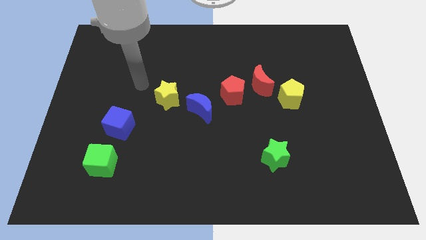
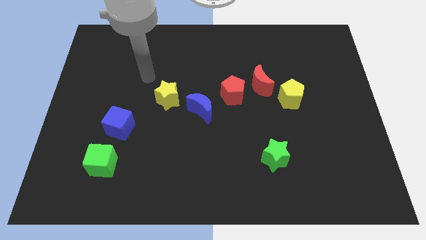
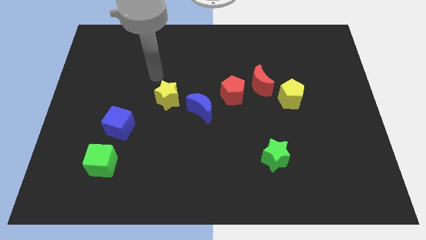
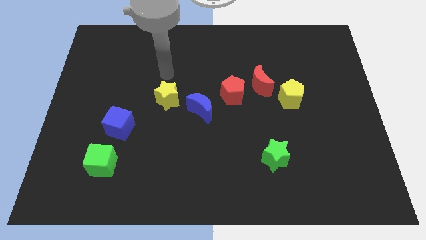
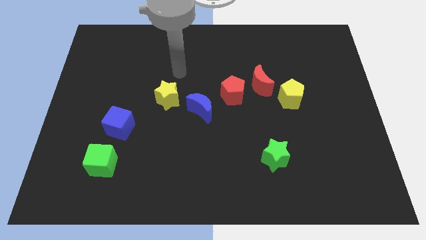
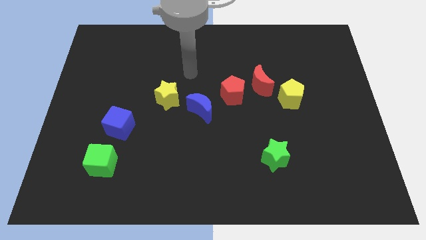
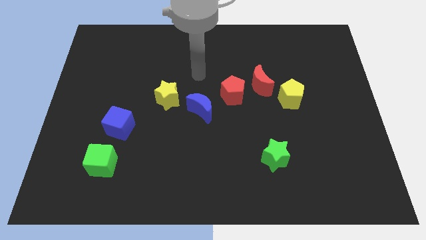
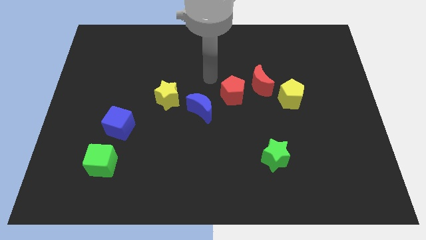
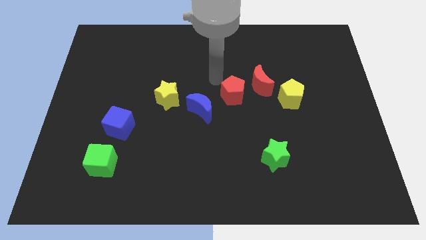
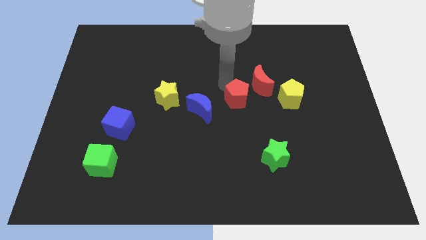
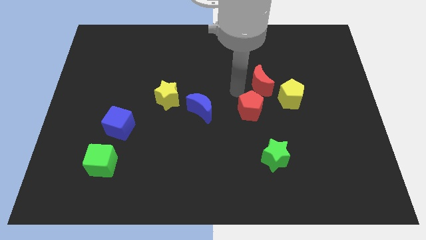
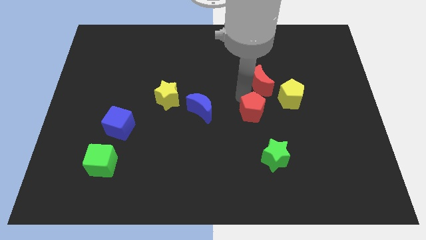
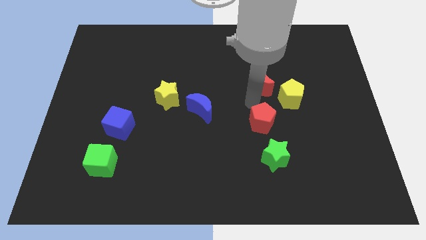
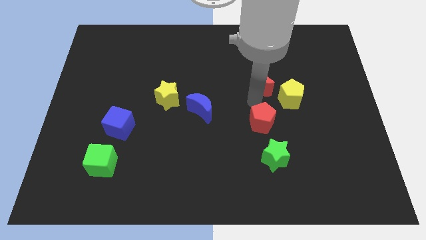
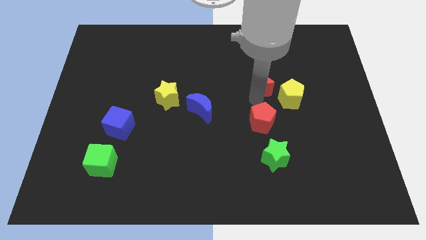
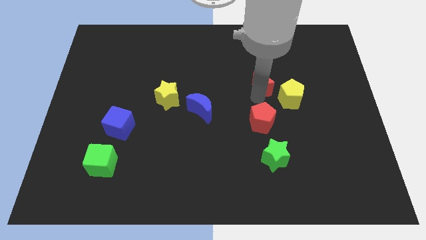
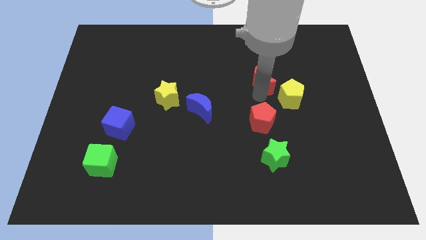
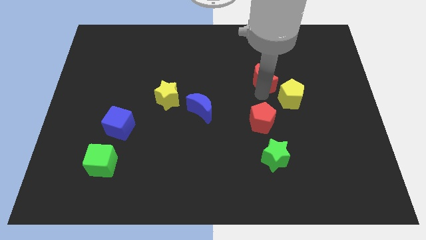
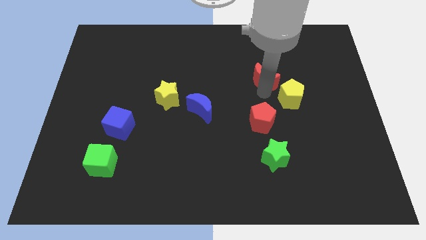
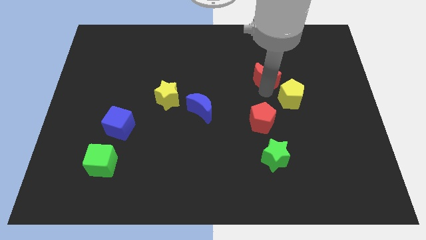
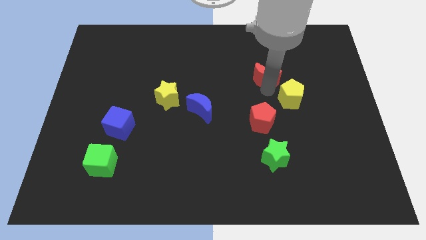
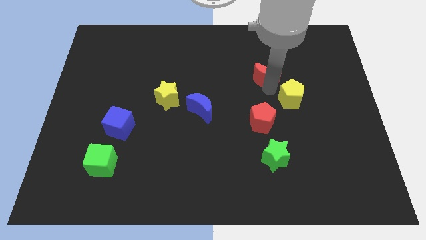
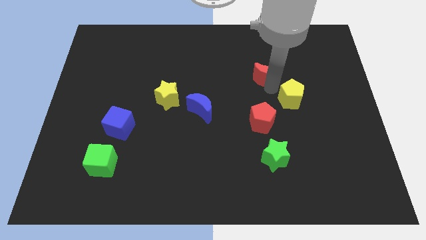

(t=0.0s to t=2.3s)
pull the red moon apart from the red pentagon and yellow pentagon

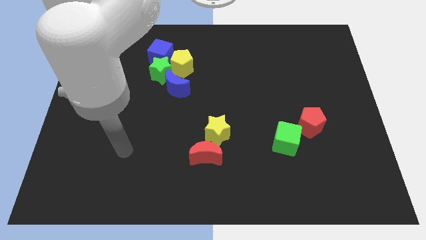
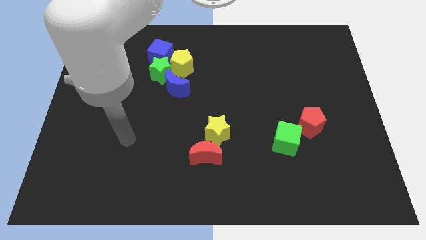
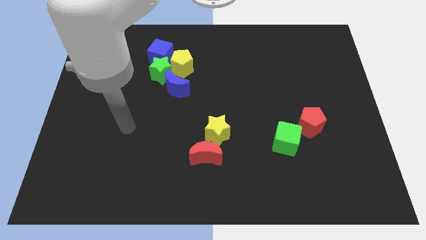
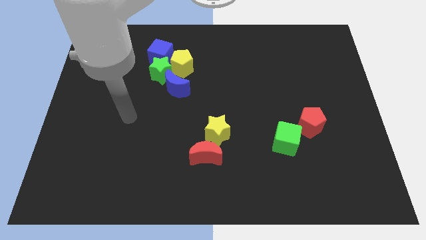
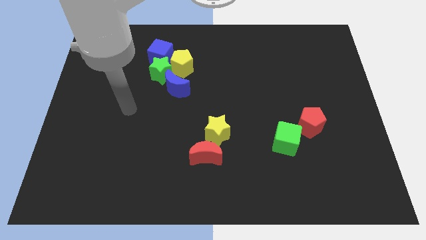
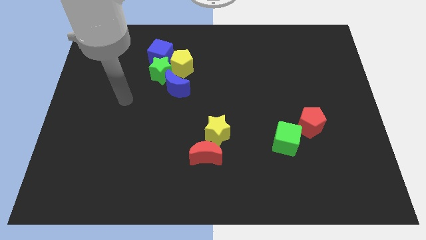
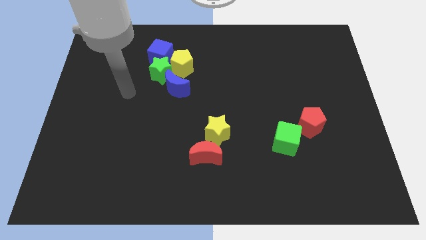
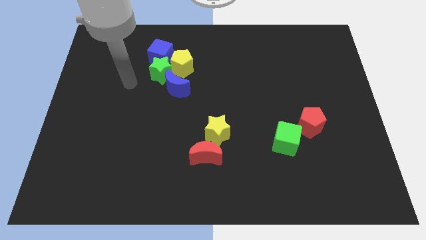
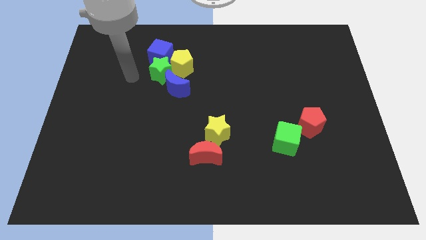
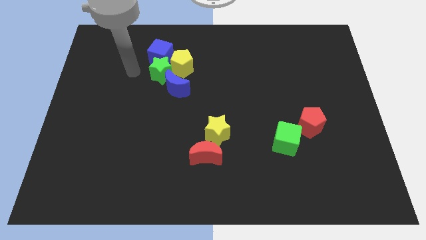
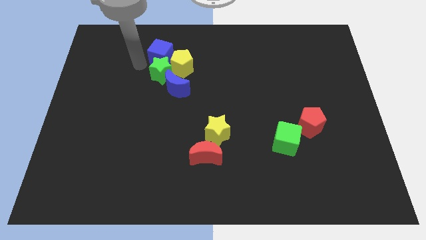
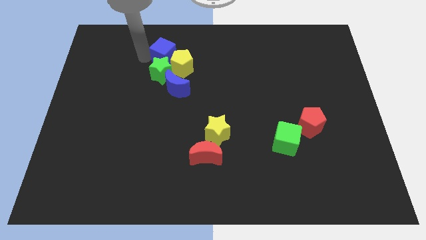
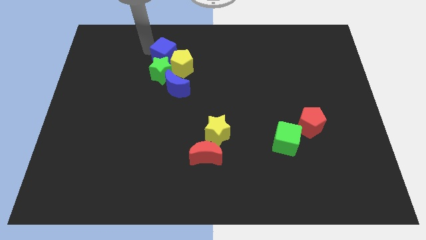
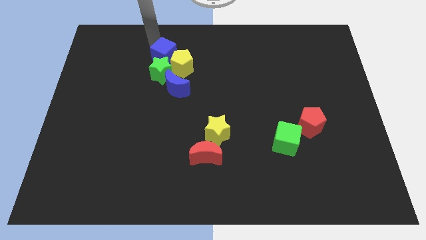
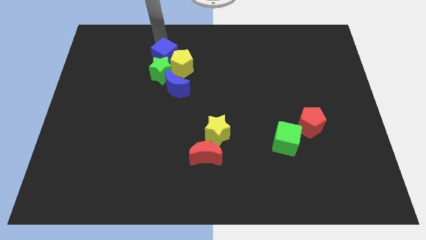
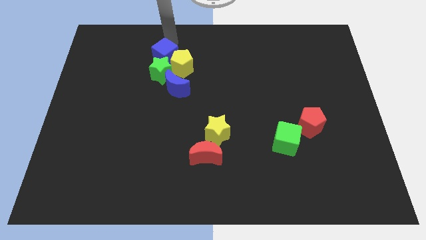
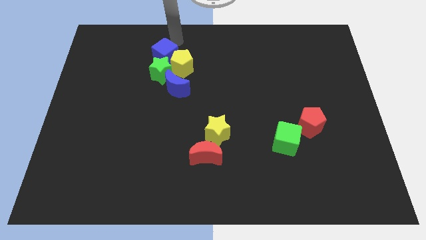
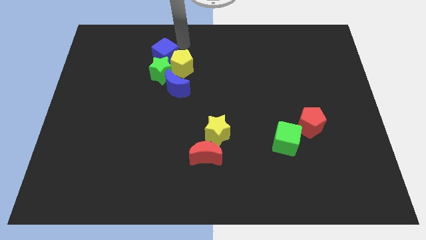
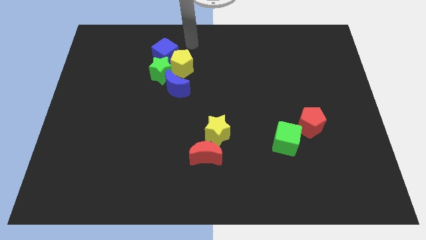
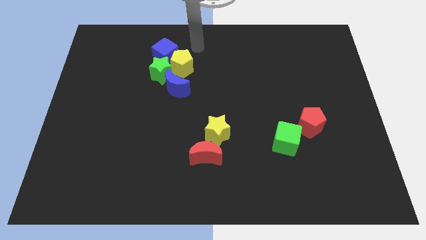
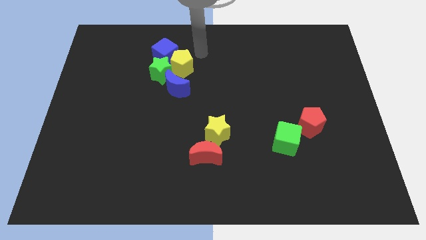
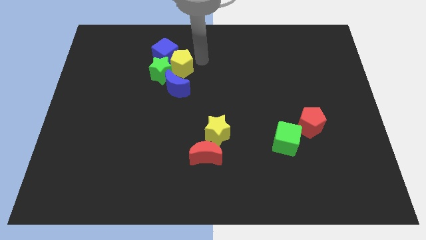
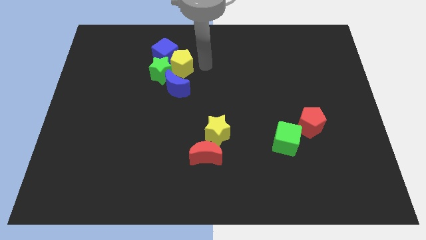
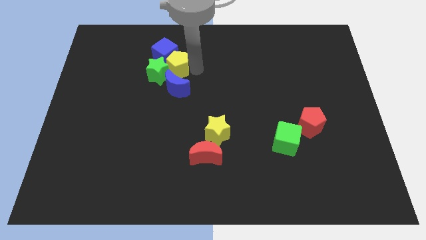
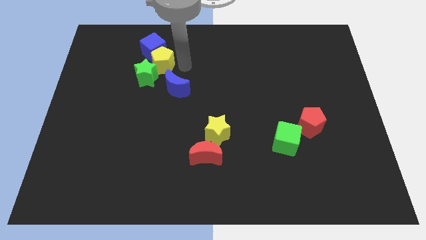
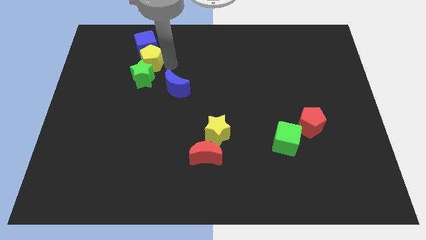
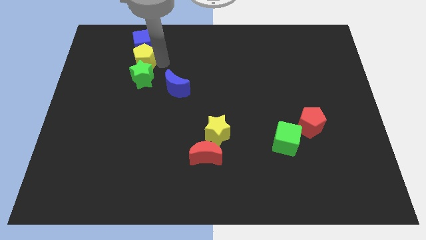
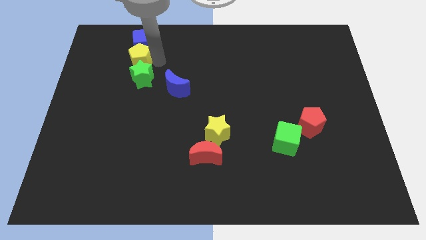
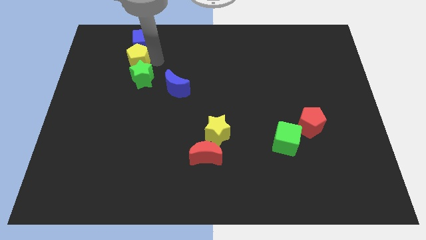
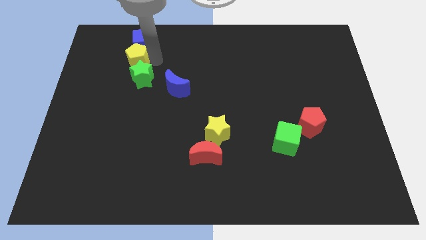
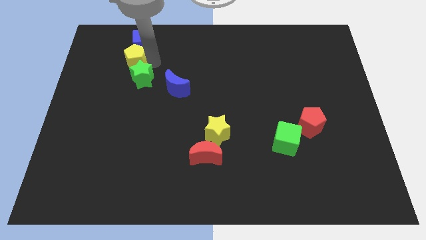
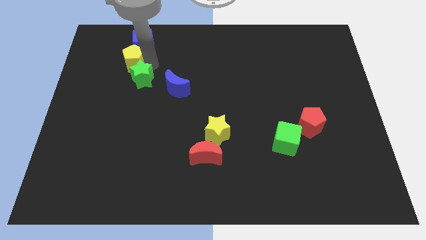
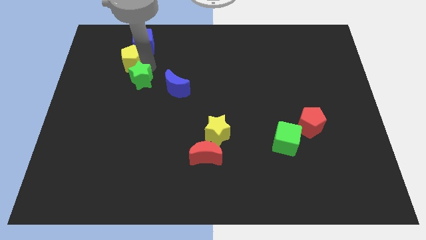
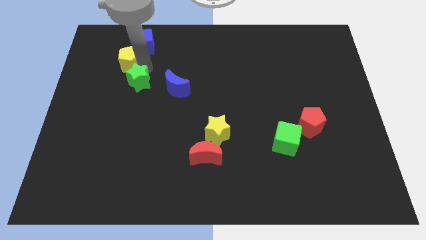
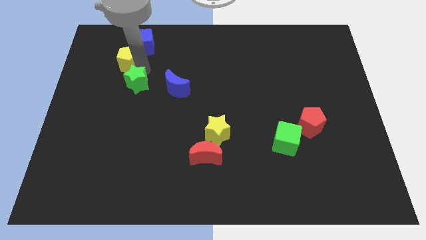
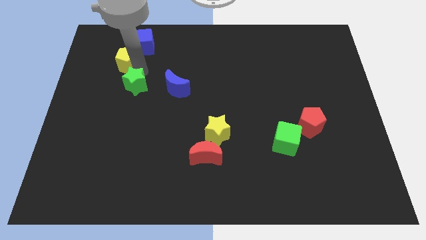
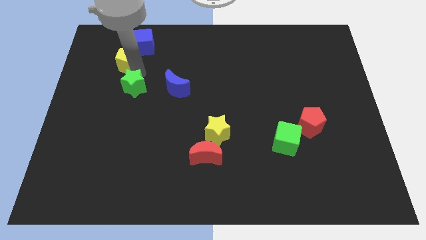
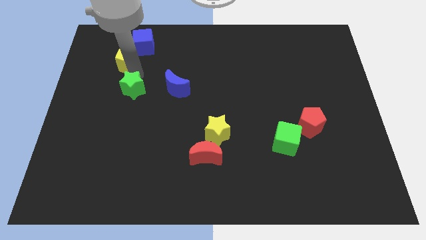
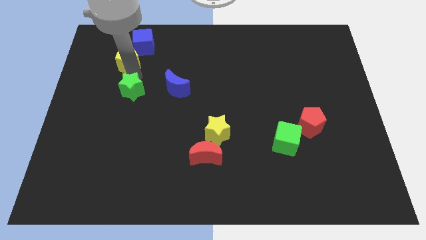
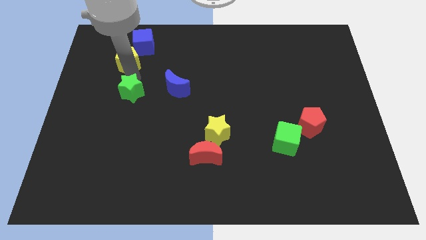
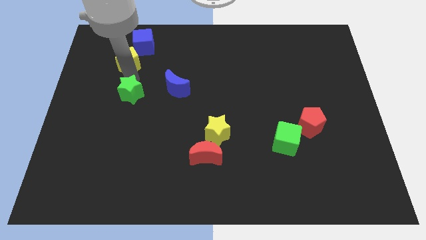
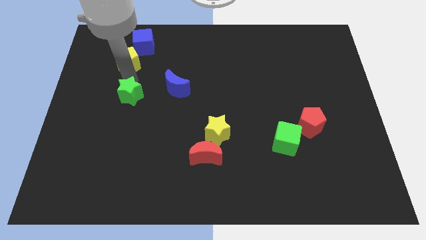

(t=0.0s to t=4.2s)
separate the green star from the clump

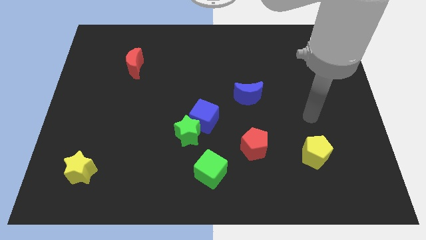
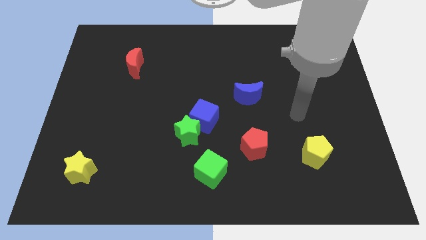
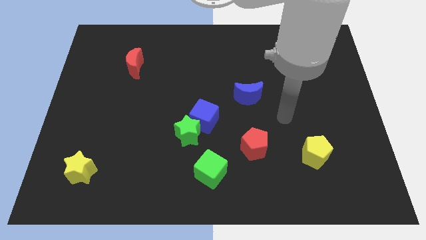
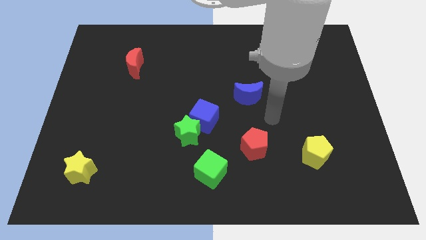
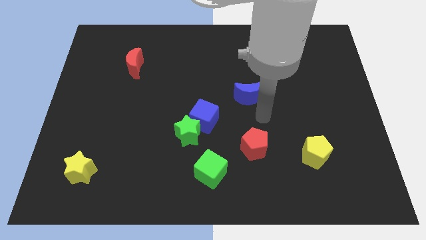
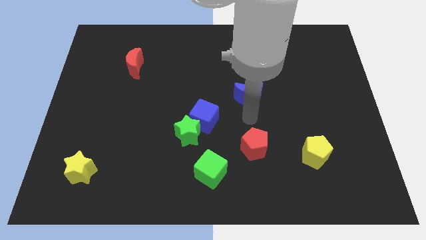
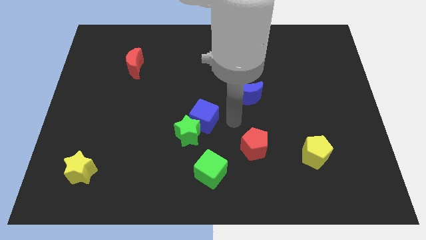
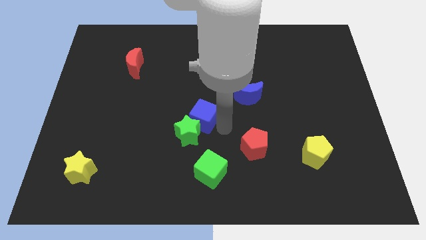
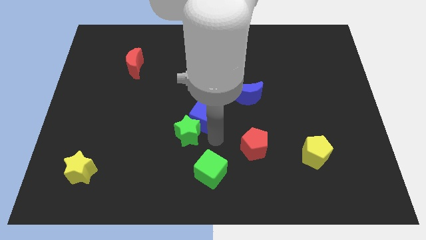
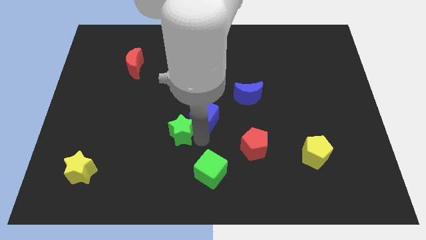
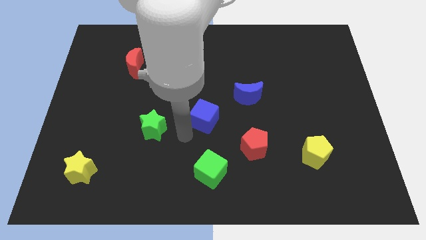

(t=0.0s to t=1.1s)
separate the blue cube from the green star

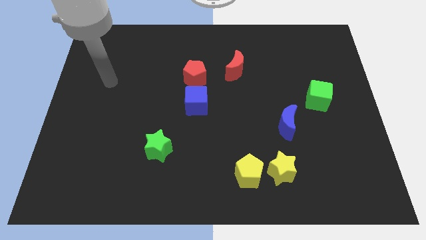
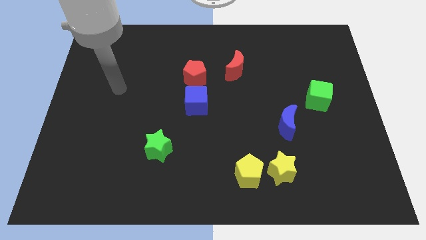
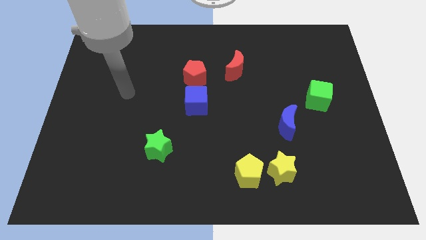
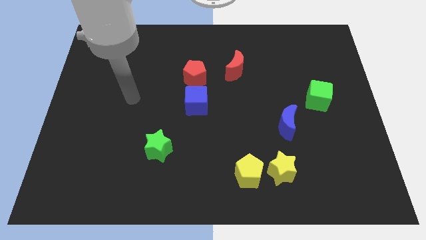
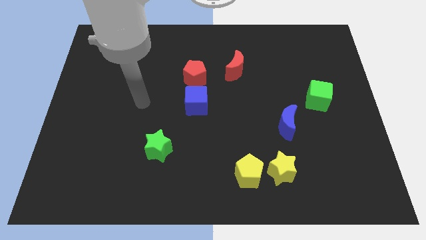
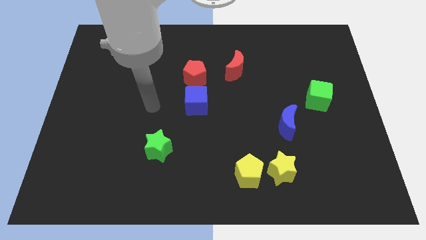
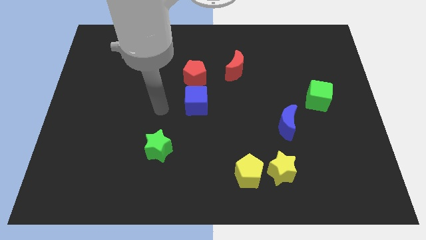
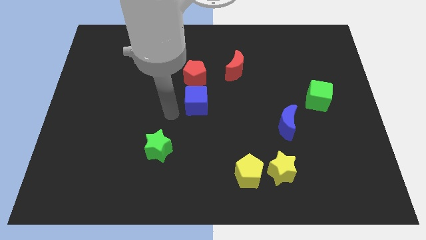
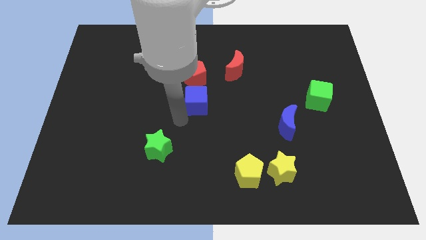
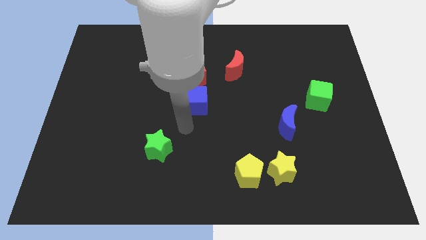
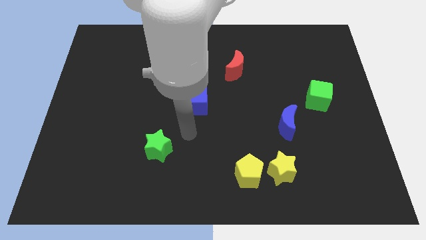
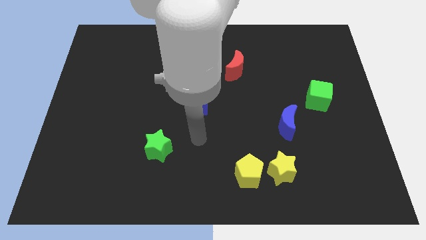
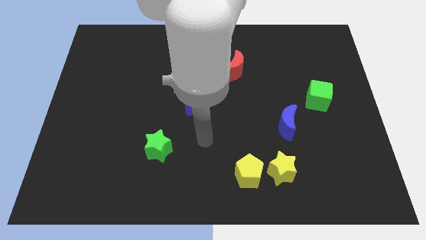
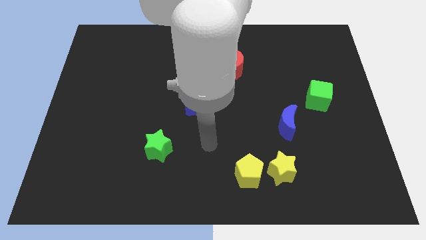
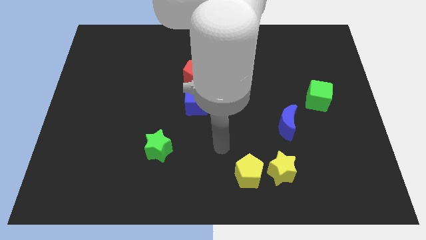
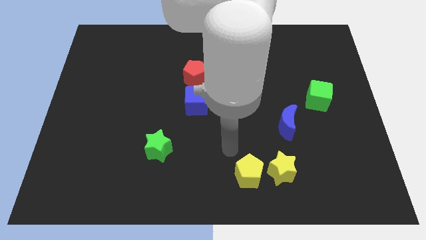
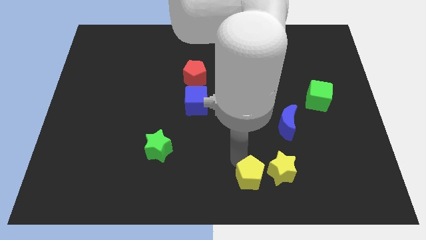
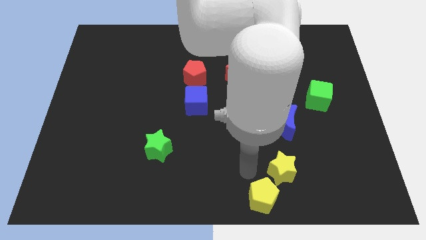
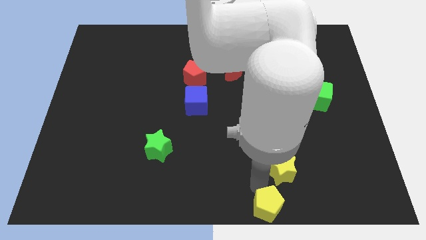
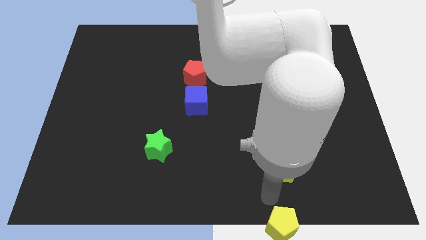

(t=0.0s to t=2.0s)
separate the yellow star from the yellow pentagon
